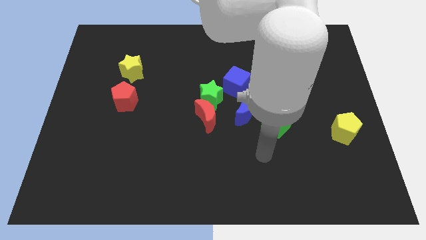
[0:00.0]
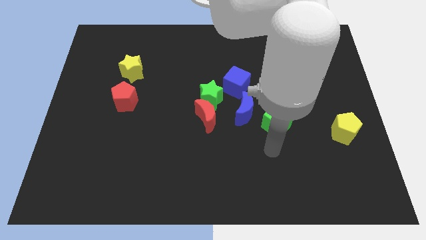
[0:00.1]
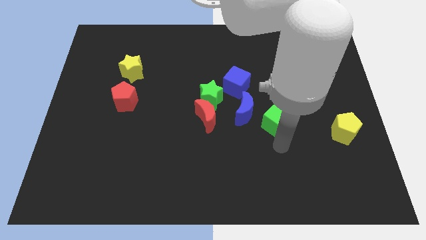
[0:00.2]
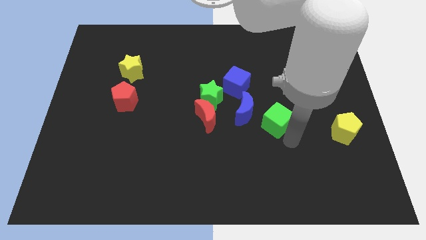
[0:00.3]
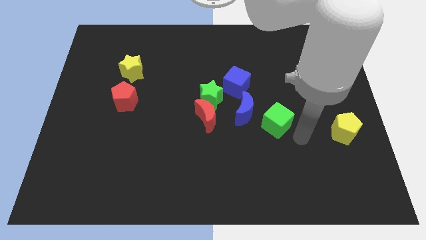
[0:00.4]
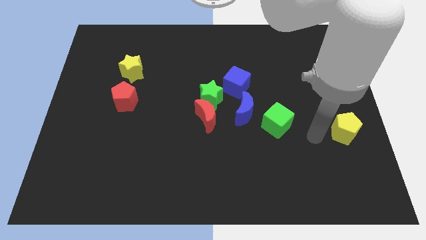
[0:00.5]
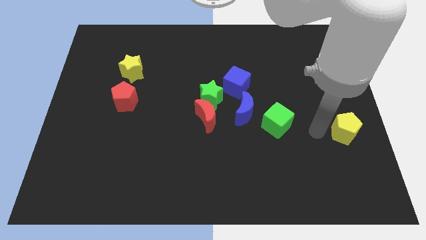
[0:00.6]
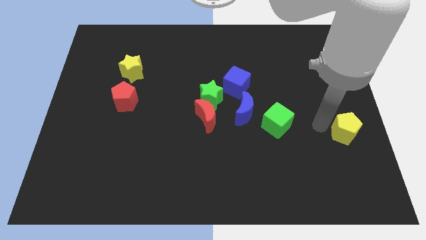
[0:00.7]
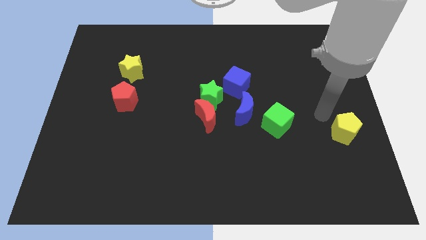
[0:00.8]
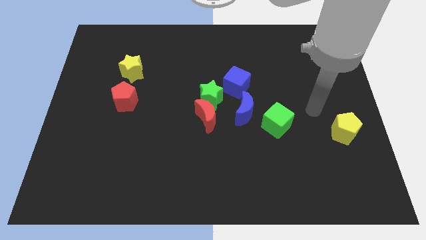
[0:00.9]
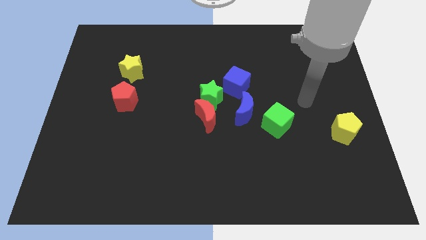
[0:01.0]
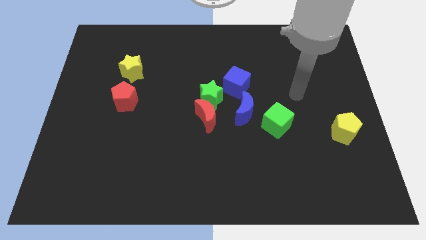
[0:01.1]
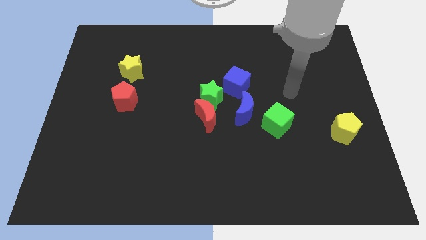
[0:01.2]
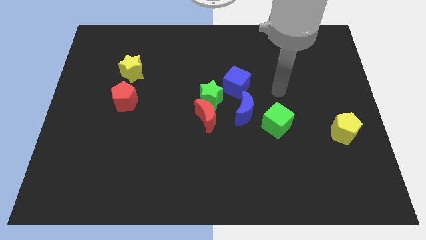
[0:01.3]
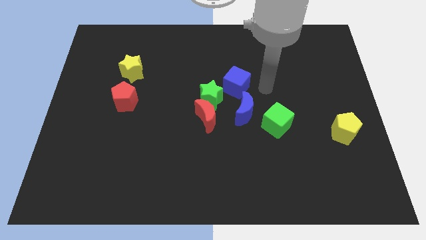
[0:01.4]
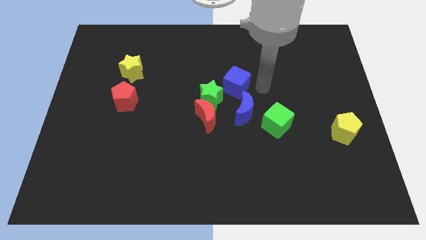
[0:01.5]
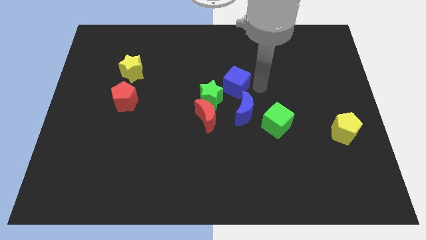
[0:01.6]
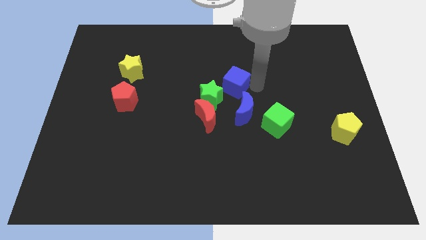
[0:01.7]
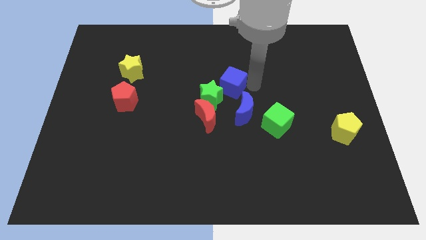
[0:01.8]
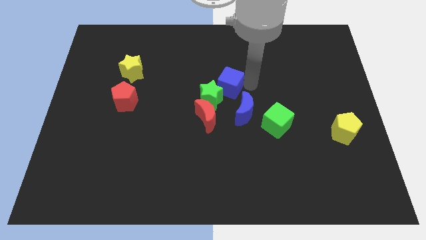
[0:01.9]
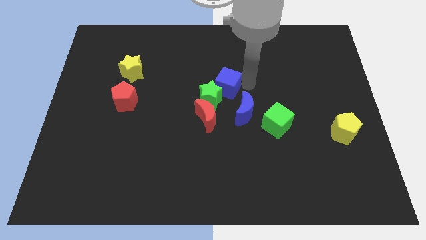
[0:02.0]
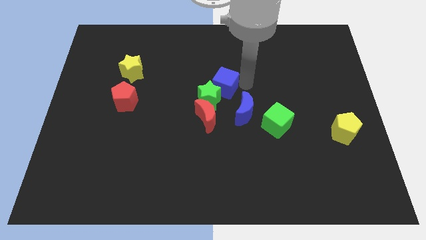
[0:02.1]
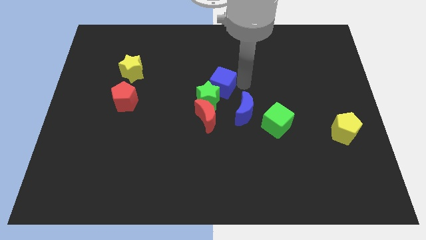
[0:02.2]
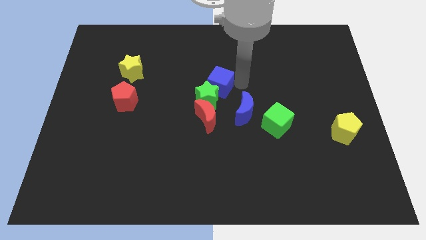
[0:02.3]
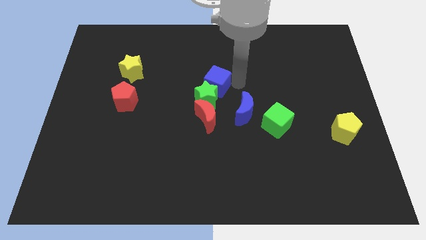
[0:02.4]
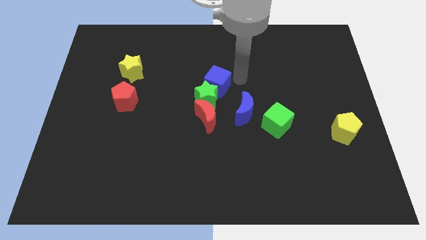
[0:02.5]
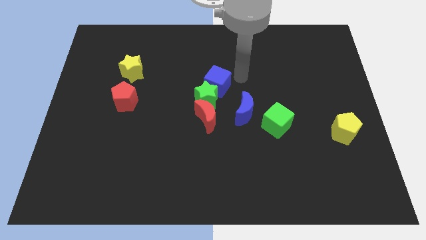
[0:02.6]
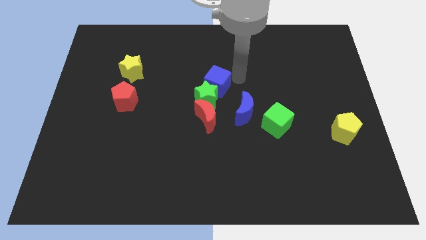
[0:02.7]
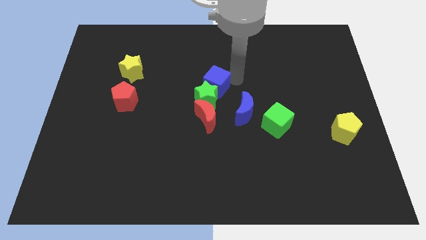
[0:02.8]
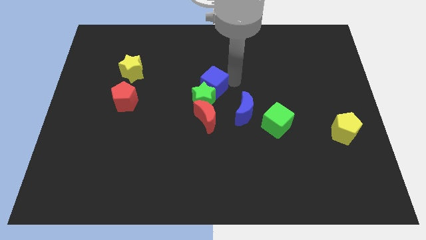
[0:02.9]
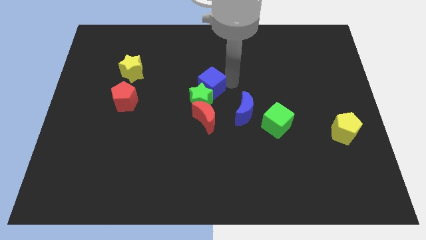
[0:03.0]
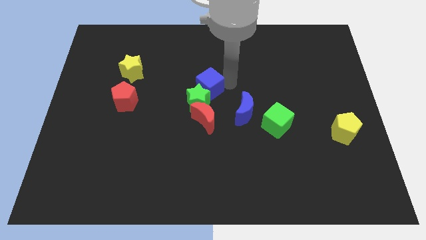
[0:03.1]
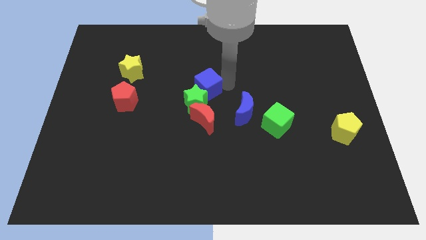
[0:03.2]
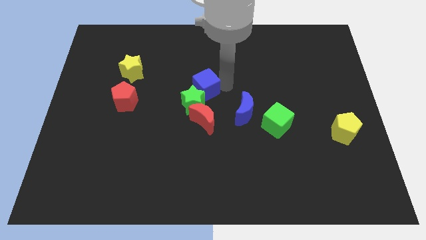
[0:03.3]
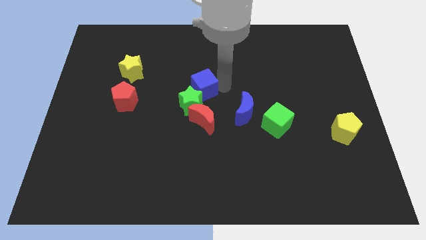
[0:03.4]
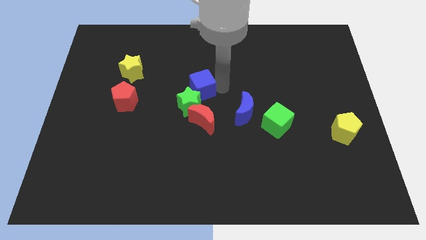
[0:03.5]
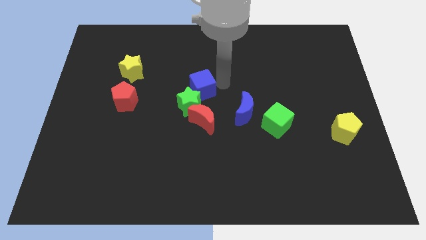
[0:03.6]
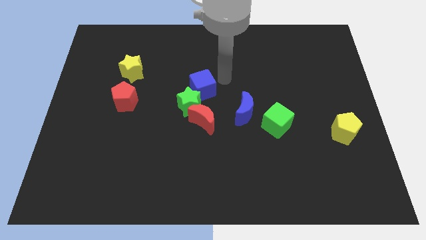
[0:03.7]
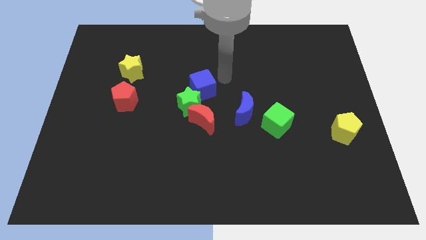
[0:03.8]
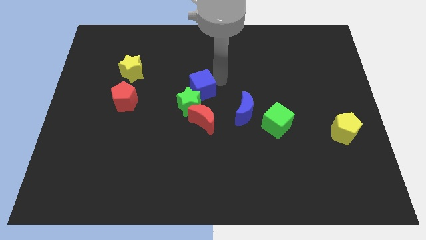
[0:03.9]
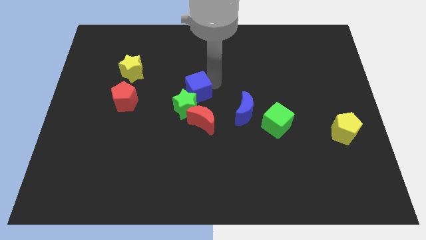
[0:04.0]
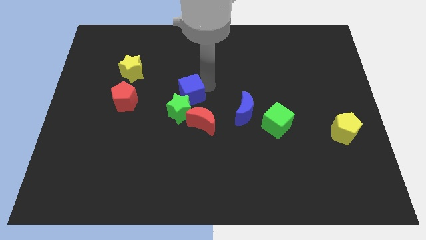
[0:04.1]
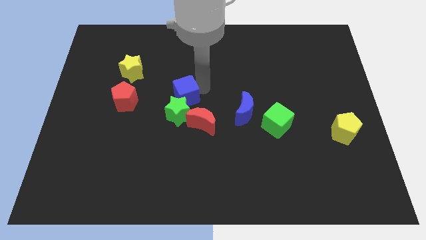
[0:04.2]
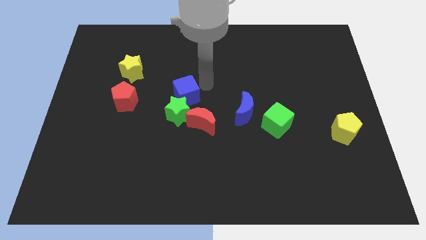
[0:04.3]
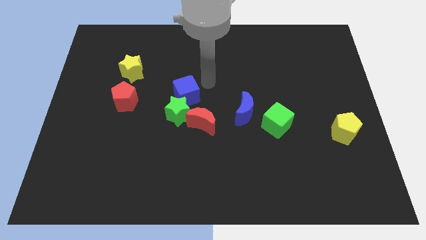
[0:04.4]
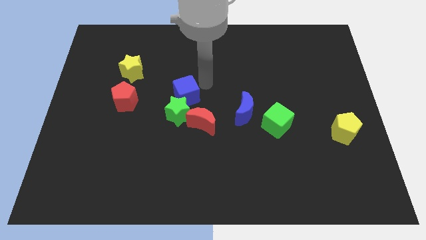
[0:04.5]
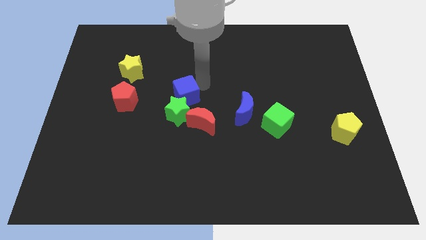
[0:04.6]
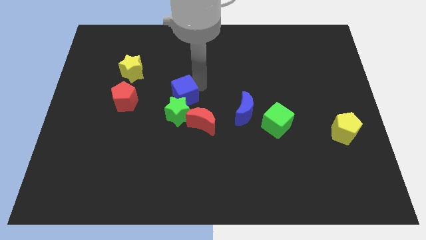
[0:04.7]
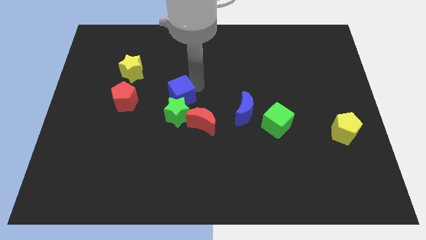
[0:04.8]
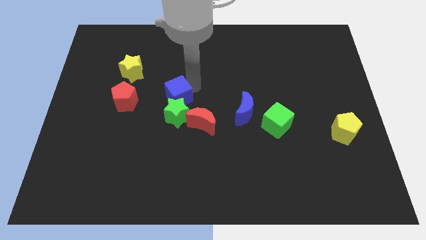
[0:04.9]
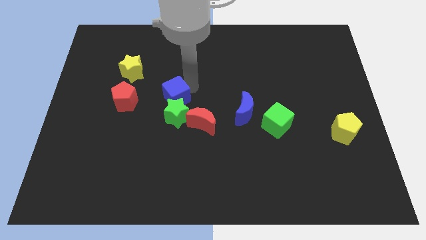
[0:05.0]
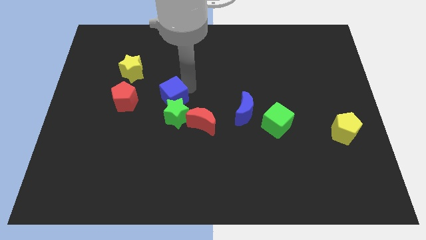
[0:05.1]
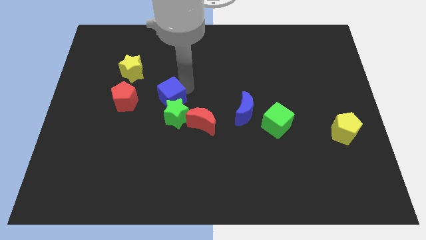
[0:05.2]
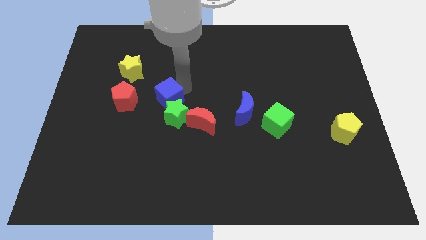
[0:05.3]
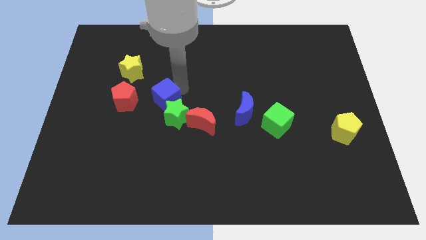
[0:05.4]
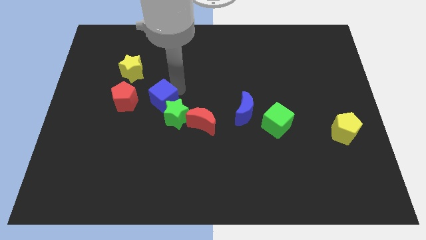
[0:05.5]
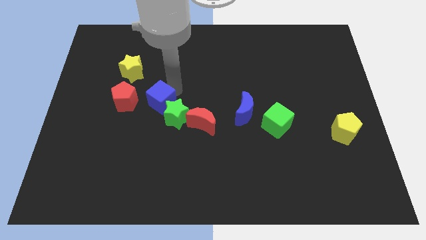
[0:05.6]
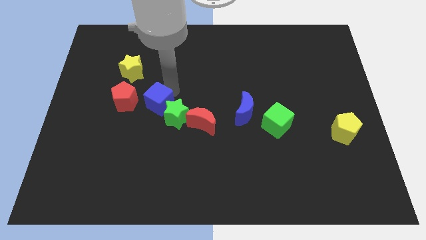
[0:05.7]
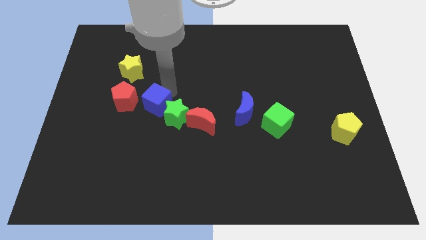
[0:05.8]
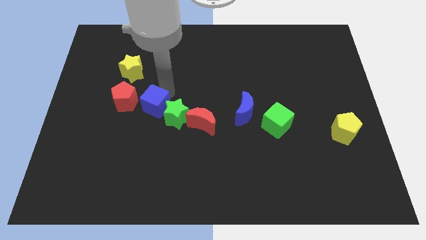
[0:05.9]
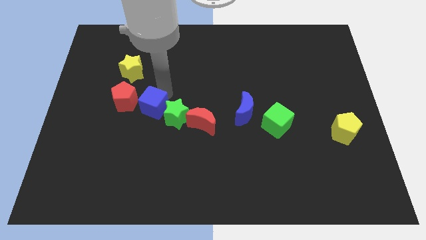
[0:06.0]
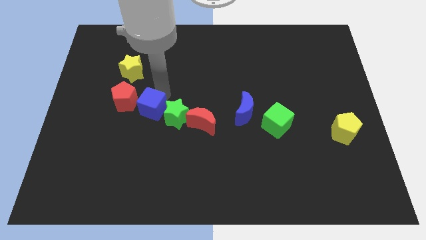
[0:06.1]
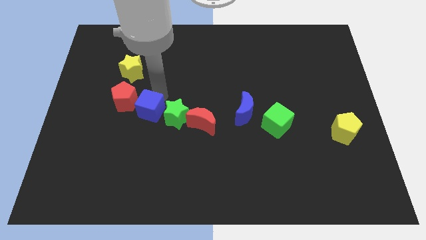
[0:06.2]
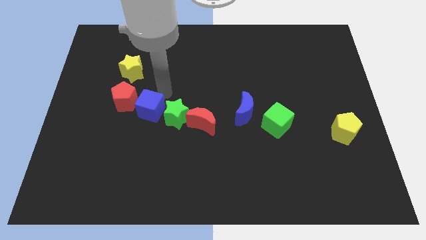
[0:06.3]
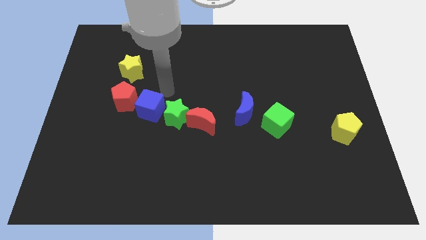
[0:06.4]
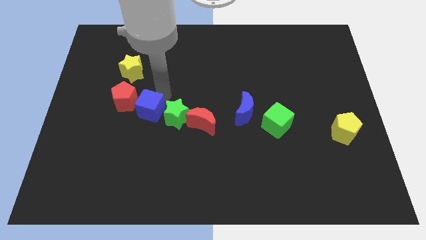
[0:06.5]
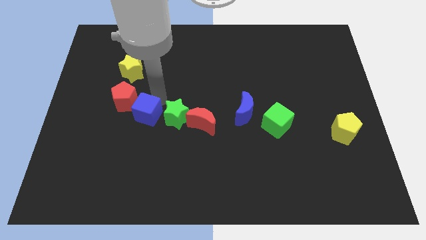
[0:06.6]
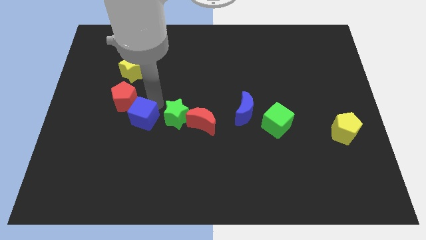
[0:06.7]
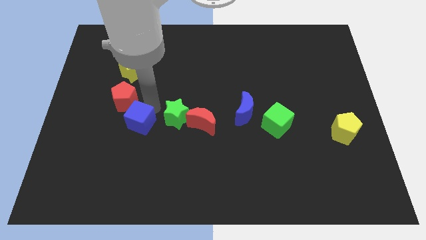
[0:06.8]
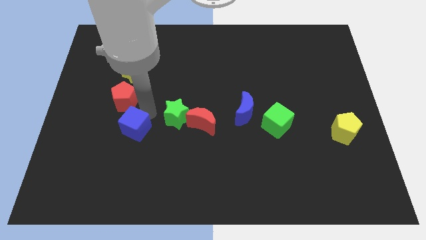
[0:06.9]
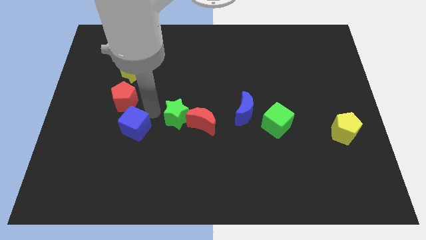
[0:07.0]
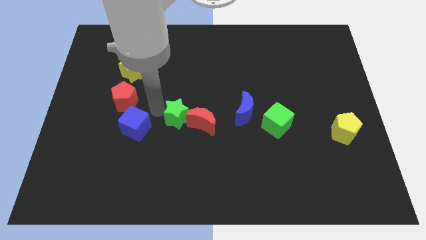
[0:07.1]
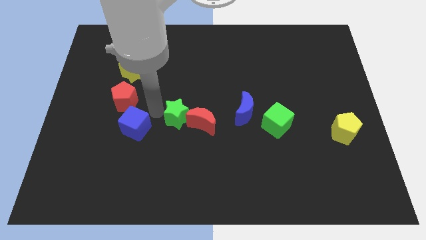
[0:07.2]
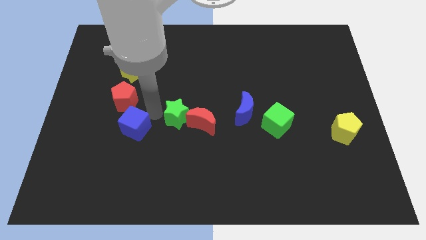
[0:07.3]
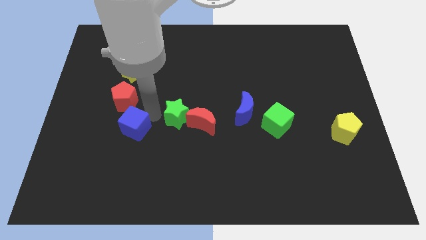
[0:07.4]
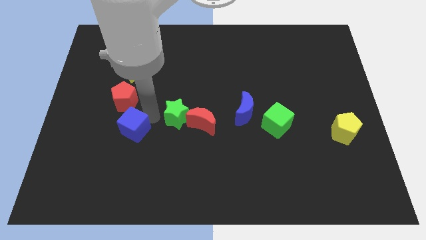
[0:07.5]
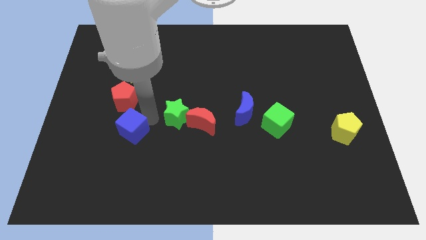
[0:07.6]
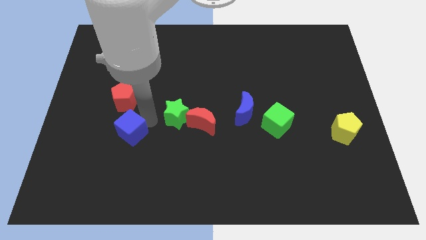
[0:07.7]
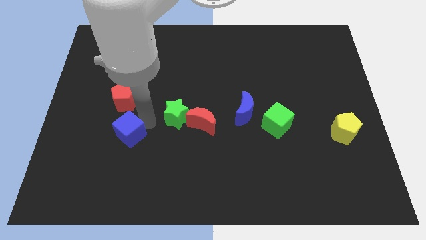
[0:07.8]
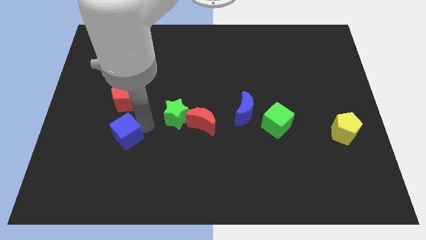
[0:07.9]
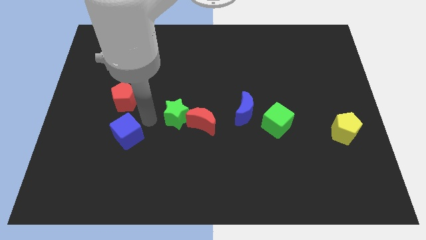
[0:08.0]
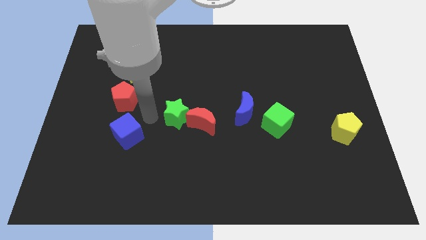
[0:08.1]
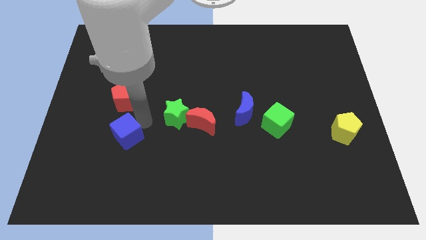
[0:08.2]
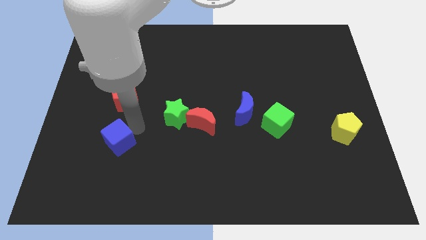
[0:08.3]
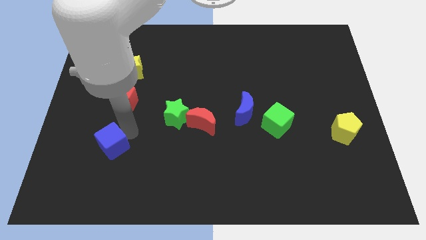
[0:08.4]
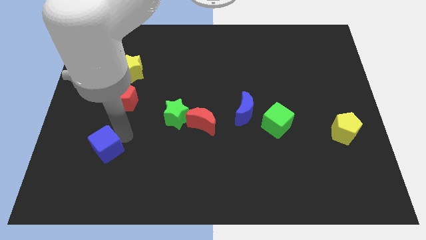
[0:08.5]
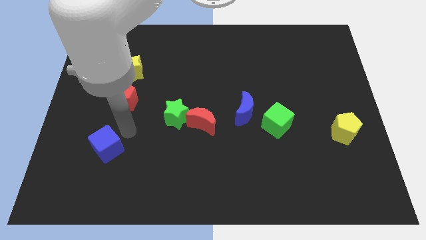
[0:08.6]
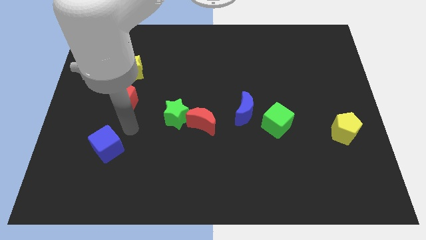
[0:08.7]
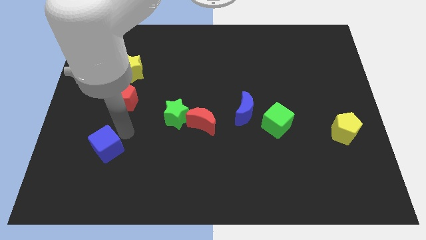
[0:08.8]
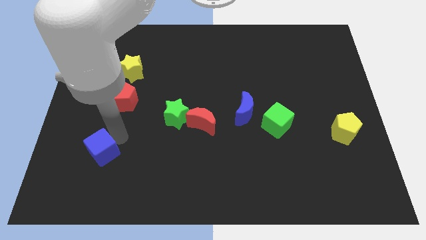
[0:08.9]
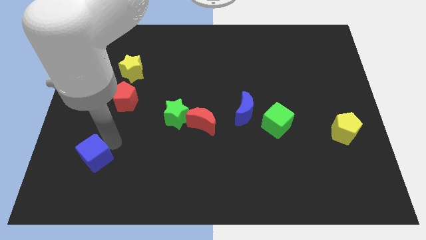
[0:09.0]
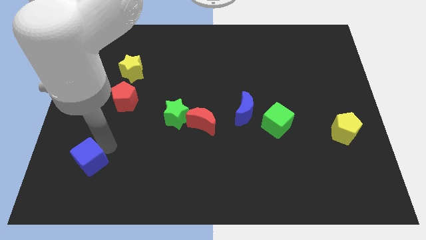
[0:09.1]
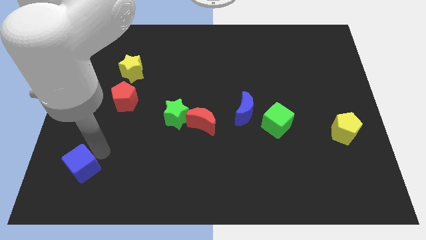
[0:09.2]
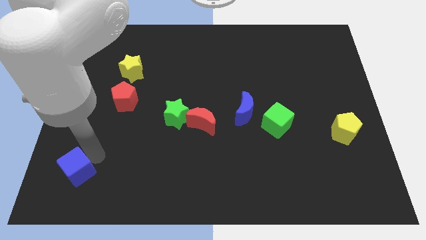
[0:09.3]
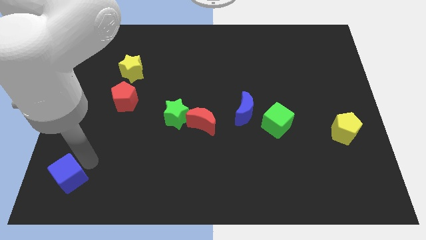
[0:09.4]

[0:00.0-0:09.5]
put the blue cube to the lower left corner
